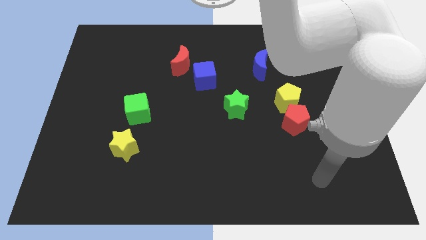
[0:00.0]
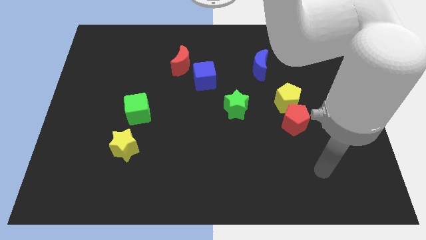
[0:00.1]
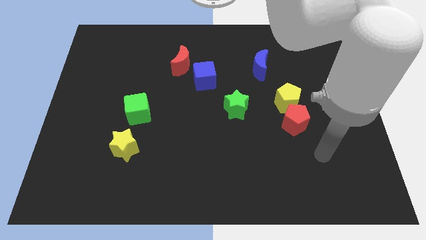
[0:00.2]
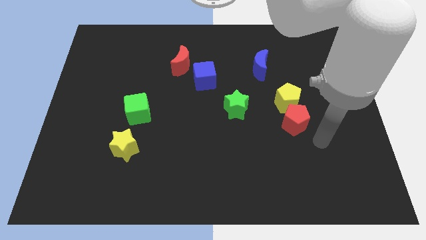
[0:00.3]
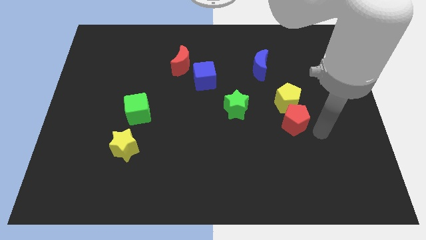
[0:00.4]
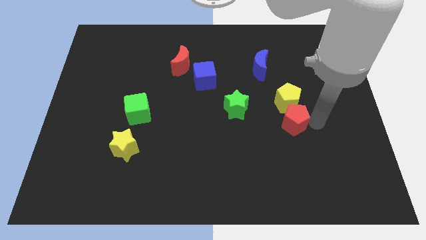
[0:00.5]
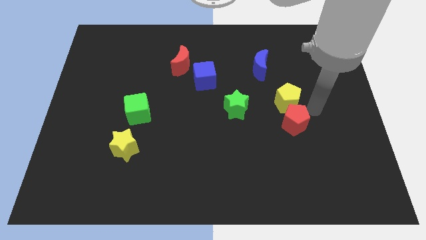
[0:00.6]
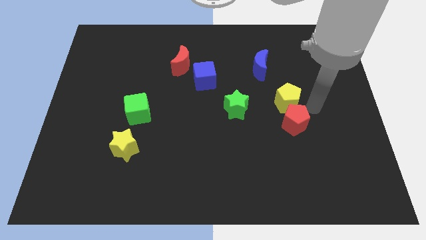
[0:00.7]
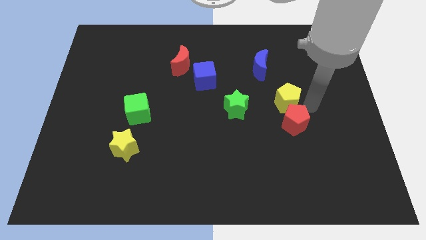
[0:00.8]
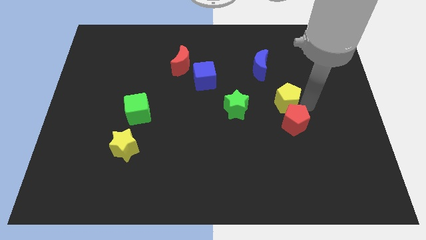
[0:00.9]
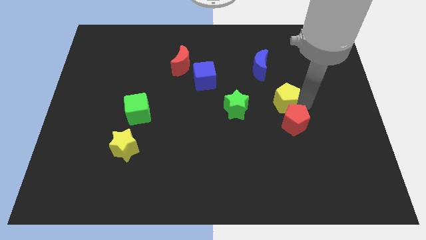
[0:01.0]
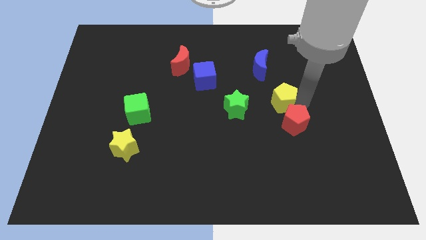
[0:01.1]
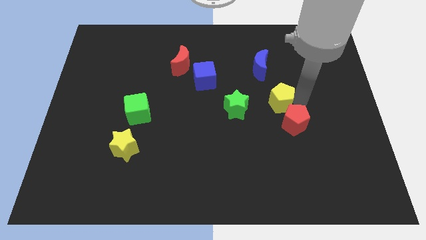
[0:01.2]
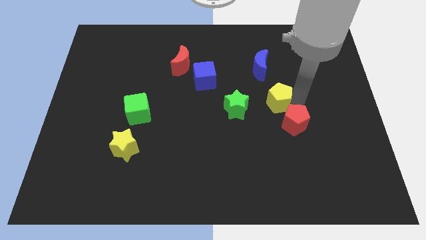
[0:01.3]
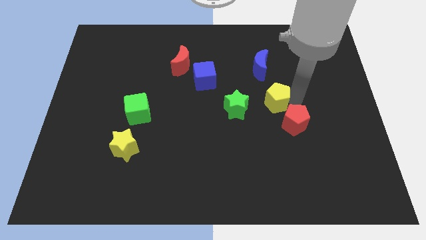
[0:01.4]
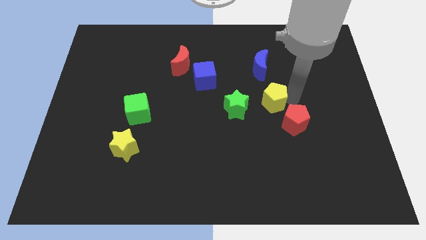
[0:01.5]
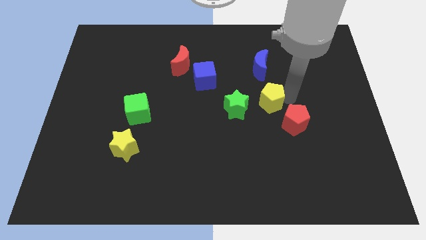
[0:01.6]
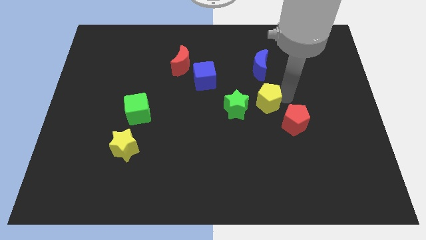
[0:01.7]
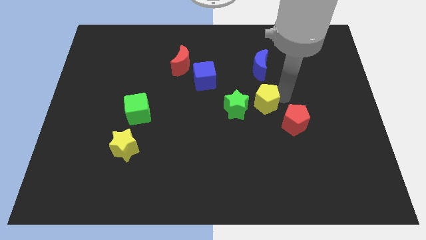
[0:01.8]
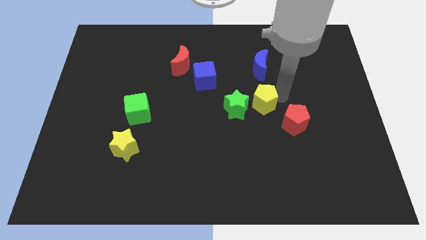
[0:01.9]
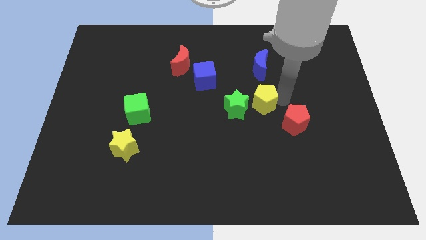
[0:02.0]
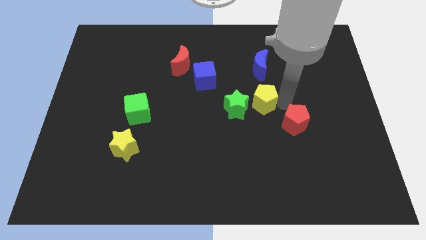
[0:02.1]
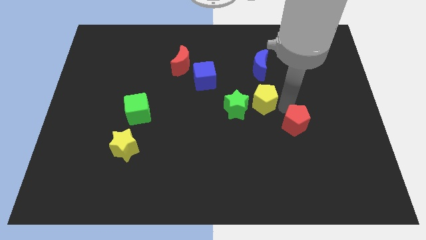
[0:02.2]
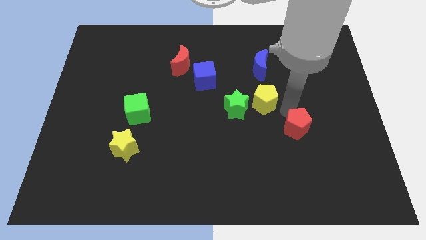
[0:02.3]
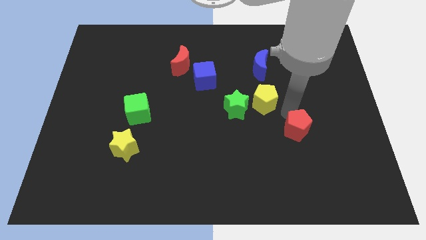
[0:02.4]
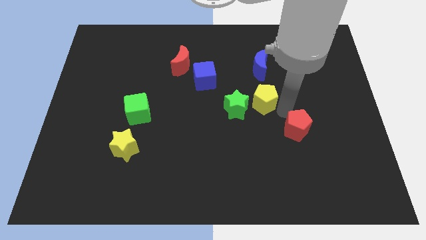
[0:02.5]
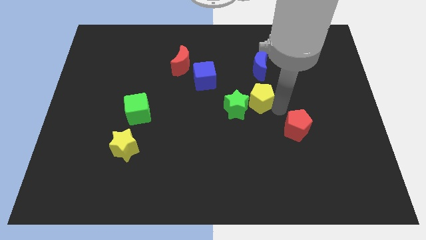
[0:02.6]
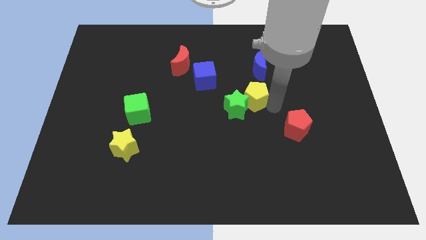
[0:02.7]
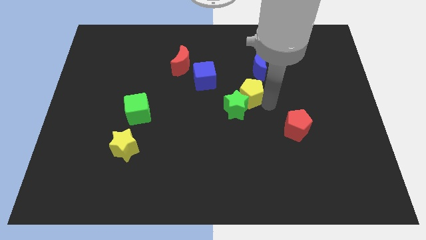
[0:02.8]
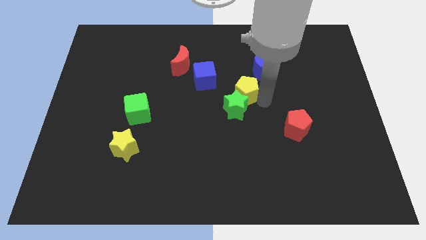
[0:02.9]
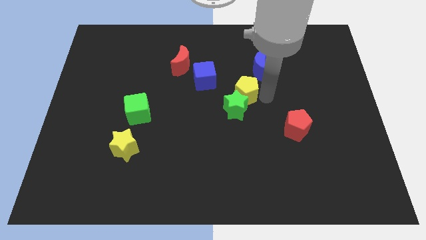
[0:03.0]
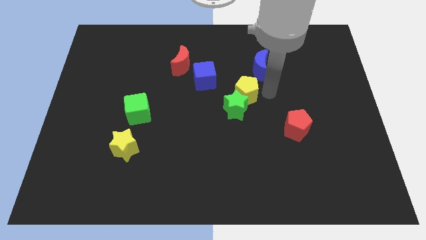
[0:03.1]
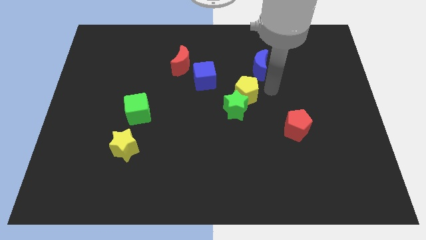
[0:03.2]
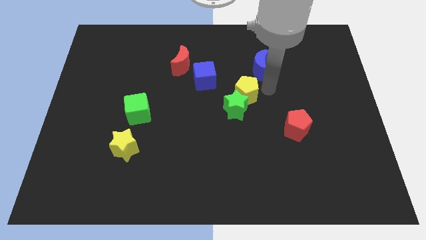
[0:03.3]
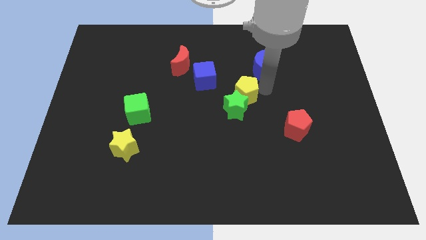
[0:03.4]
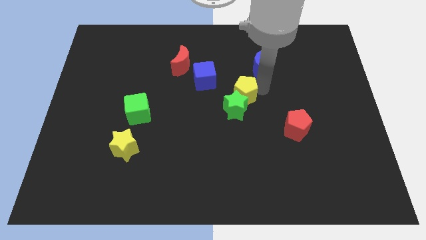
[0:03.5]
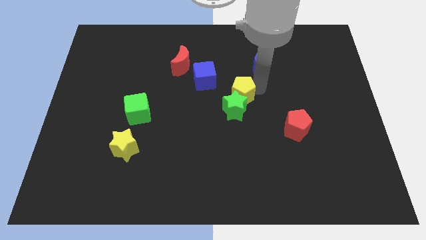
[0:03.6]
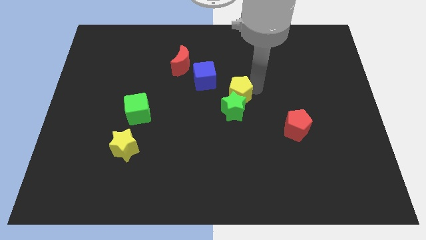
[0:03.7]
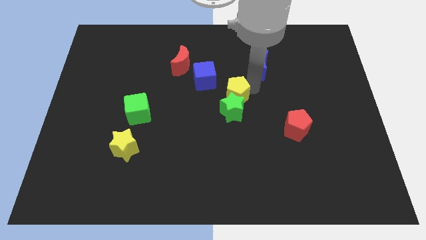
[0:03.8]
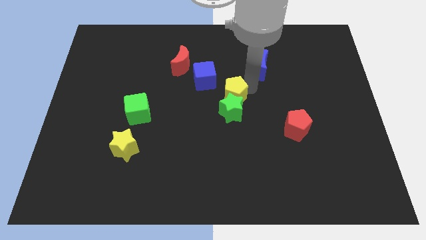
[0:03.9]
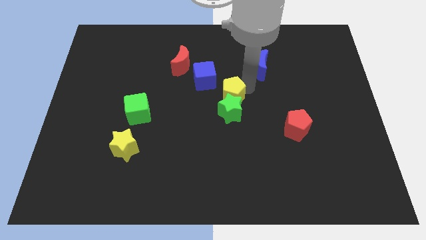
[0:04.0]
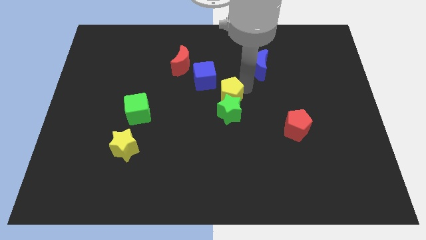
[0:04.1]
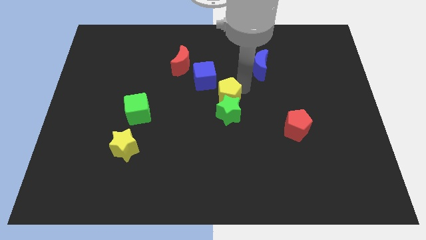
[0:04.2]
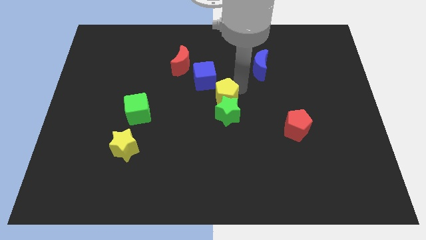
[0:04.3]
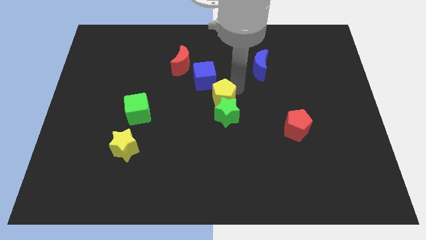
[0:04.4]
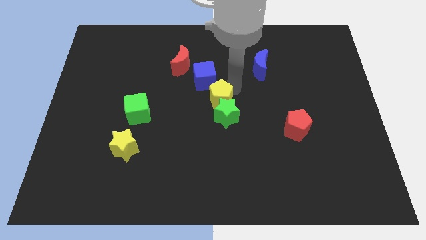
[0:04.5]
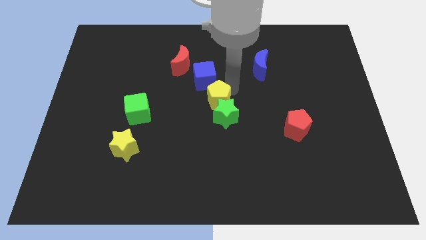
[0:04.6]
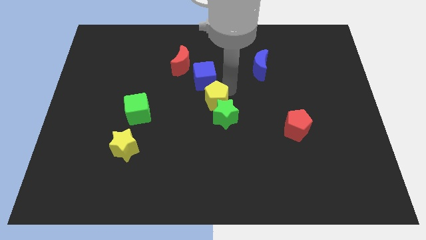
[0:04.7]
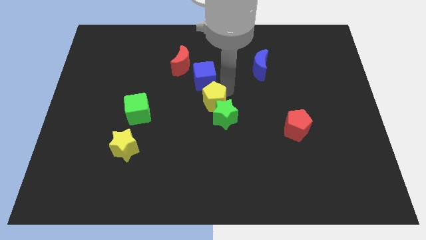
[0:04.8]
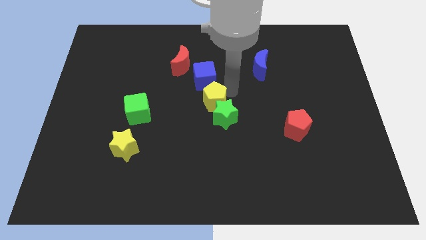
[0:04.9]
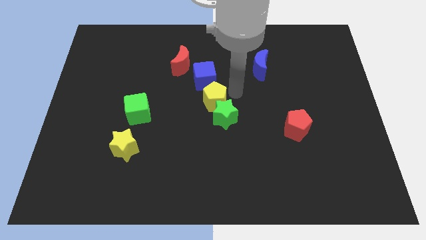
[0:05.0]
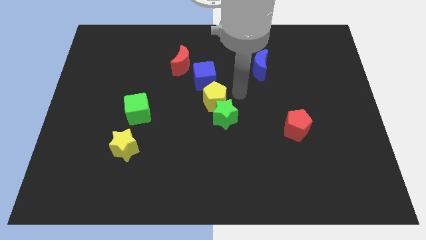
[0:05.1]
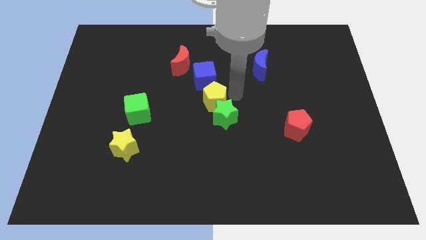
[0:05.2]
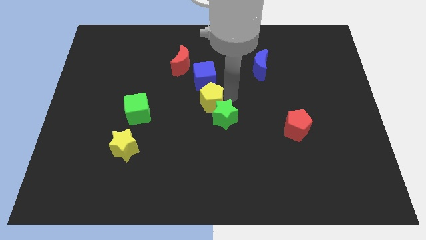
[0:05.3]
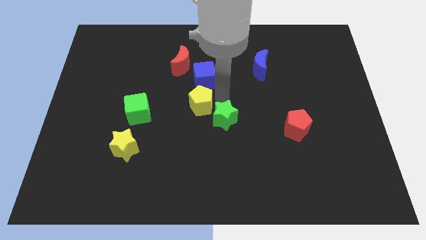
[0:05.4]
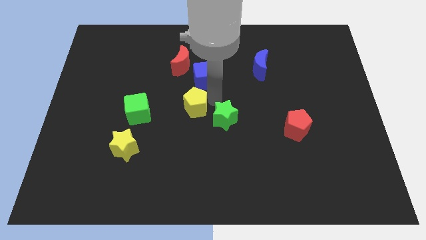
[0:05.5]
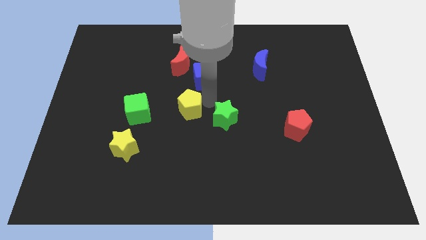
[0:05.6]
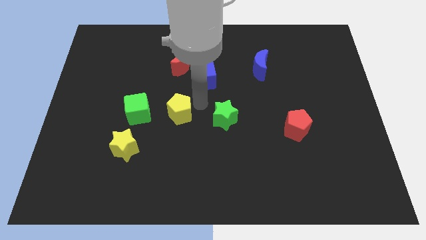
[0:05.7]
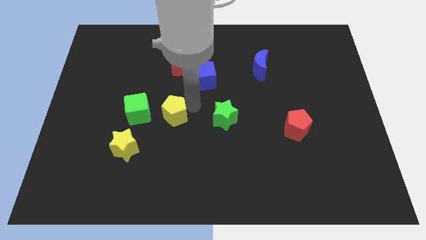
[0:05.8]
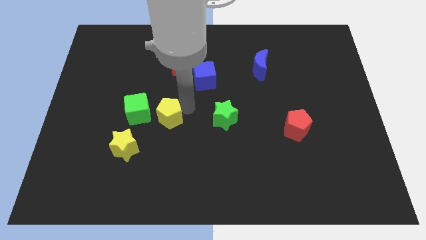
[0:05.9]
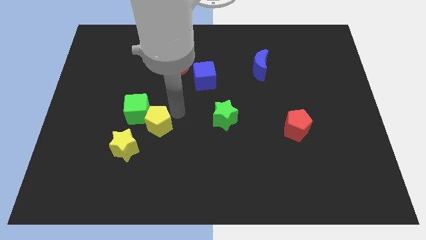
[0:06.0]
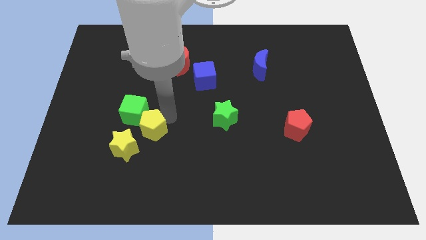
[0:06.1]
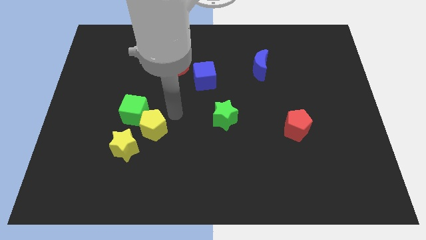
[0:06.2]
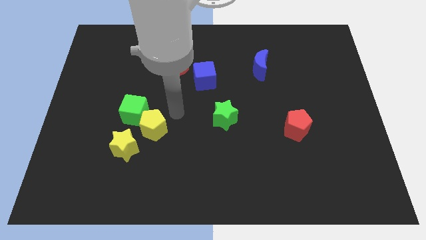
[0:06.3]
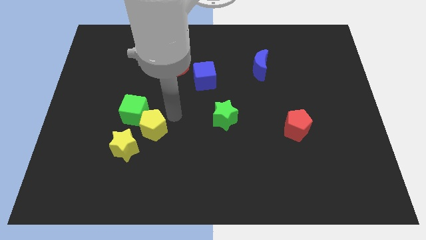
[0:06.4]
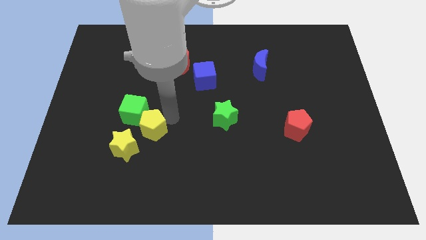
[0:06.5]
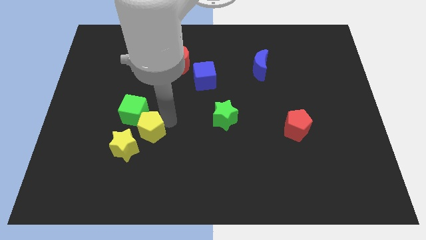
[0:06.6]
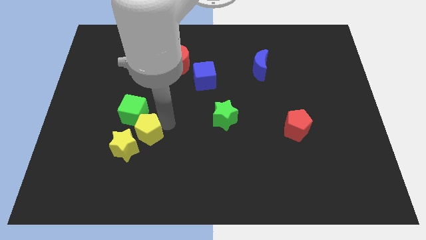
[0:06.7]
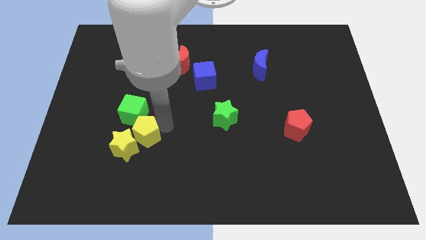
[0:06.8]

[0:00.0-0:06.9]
put the yellow pentagon to the yellow star

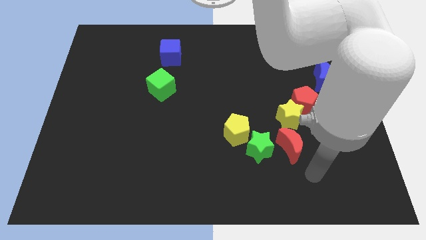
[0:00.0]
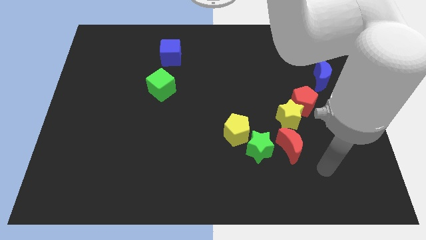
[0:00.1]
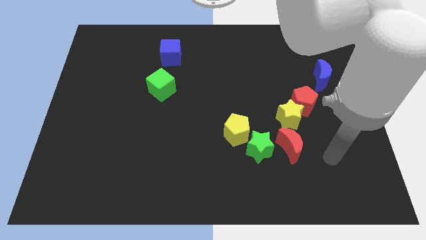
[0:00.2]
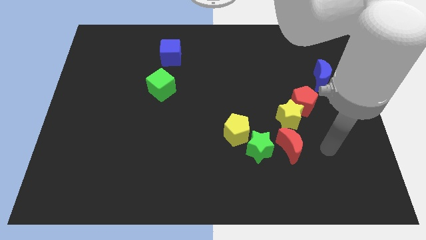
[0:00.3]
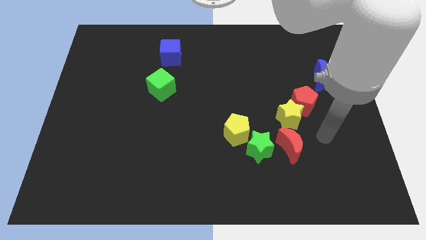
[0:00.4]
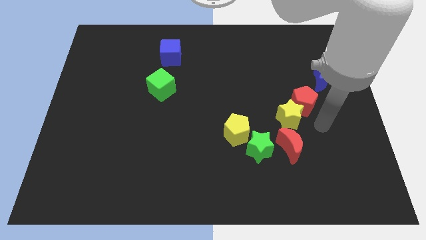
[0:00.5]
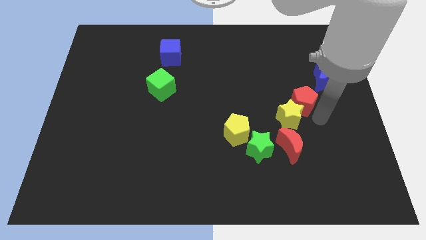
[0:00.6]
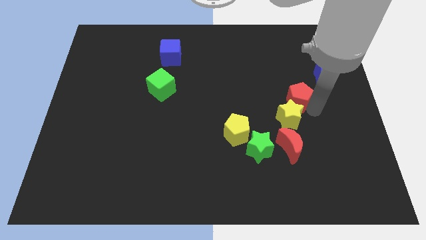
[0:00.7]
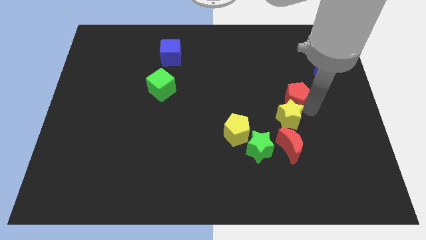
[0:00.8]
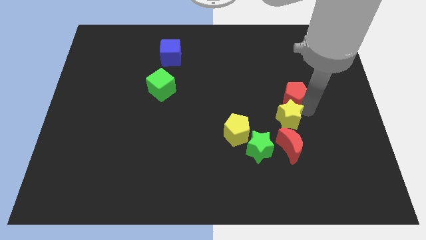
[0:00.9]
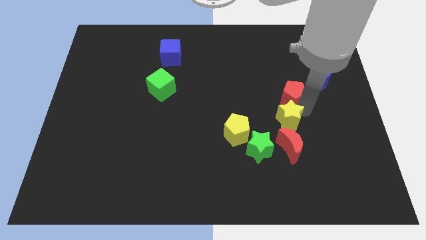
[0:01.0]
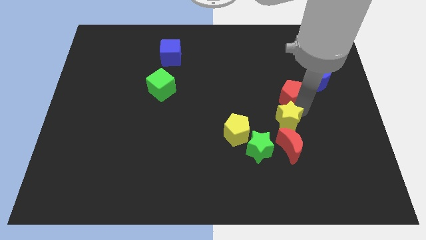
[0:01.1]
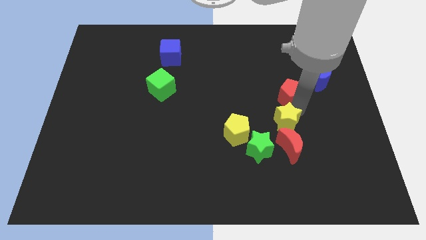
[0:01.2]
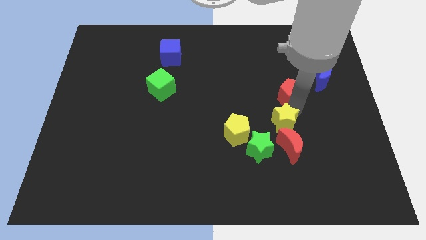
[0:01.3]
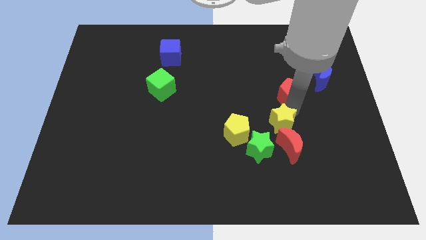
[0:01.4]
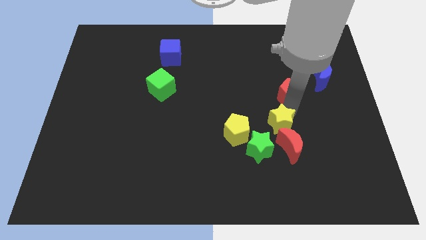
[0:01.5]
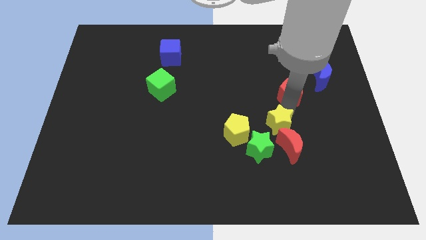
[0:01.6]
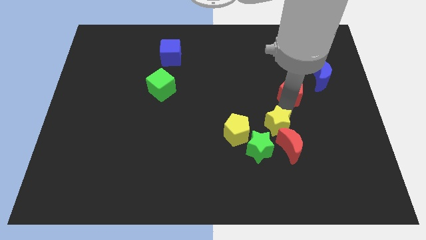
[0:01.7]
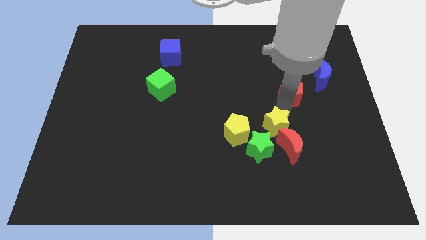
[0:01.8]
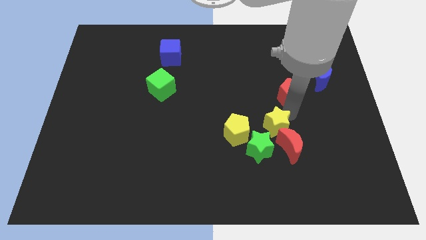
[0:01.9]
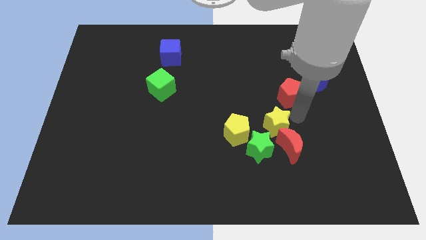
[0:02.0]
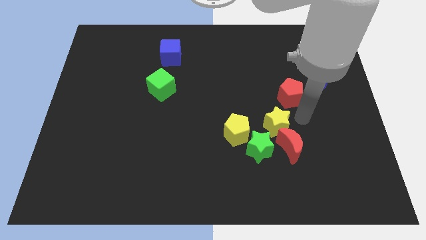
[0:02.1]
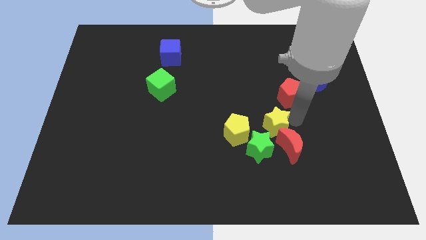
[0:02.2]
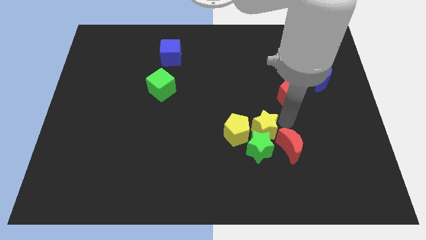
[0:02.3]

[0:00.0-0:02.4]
put the yellow star towards the yellow pentagon
